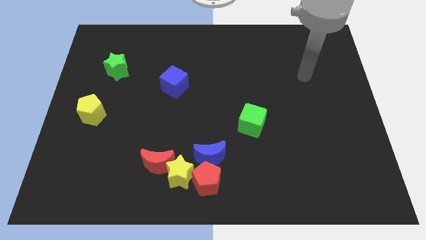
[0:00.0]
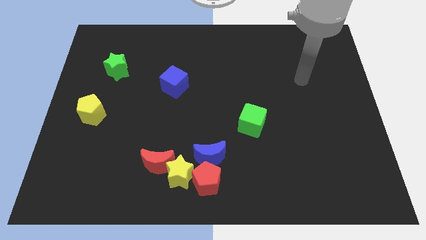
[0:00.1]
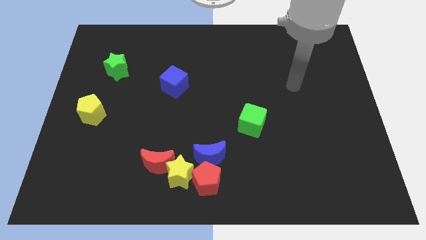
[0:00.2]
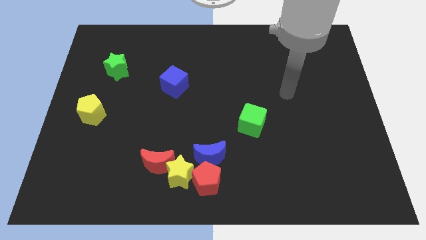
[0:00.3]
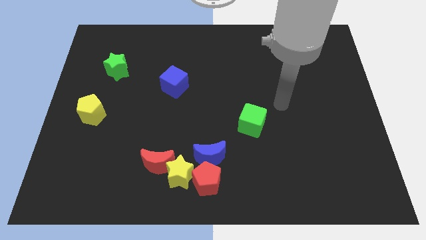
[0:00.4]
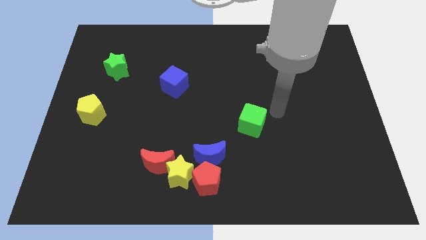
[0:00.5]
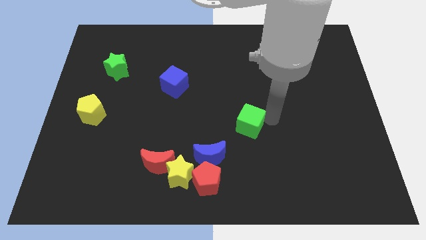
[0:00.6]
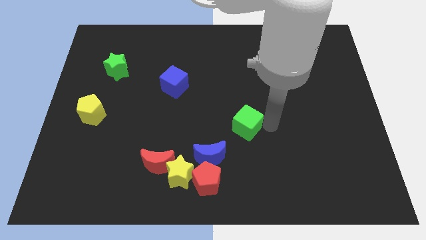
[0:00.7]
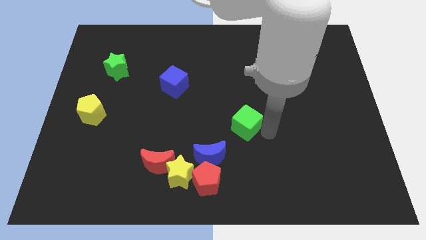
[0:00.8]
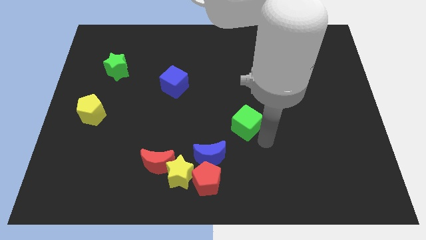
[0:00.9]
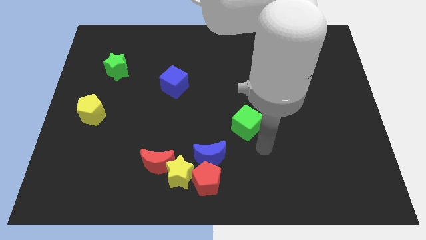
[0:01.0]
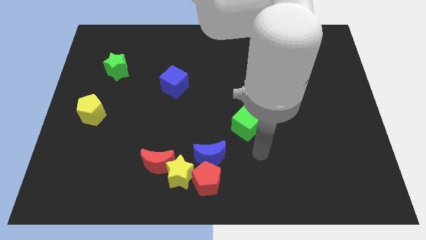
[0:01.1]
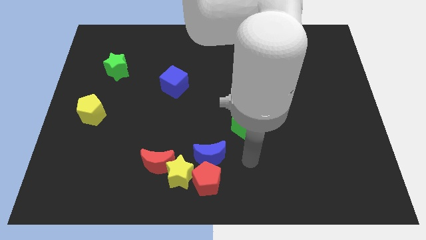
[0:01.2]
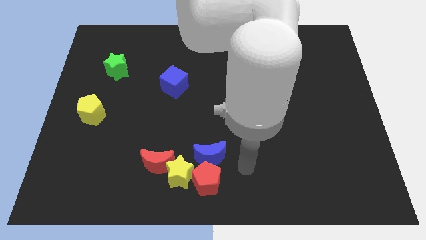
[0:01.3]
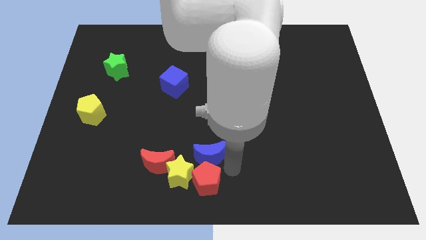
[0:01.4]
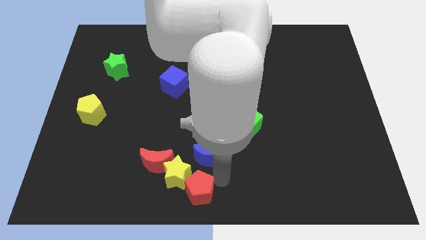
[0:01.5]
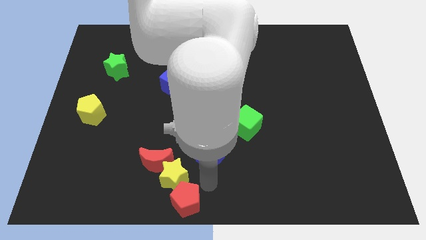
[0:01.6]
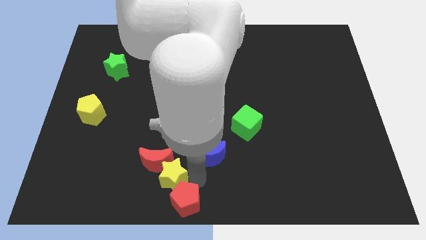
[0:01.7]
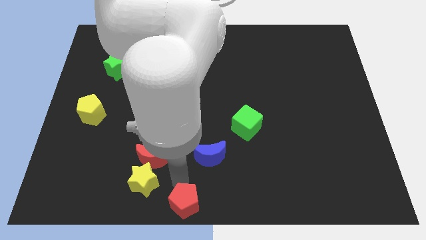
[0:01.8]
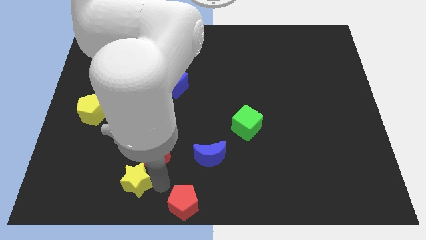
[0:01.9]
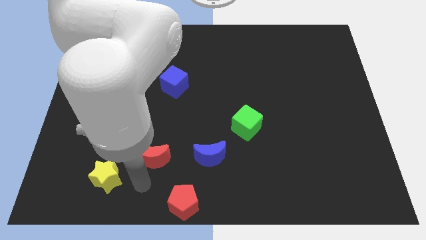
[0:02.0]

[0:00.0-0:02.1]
separate the red moon from the yellow star

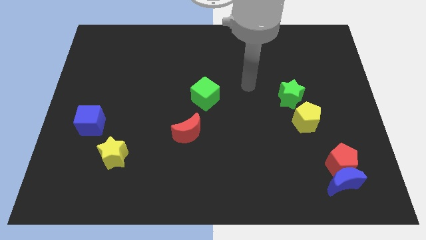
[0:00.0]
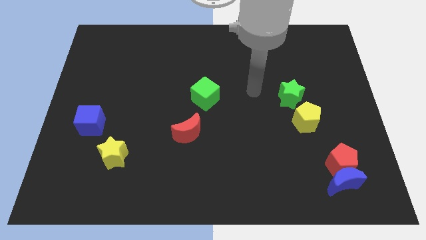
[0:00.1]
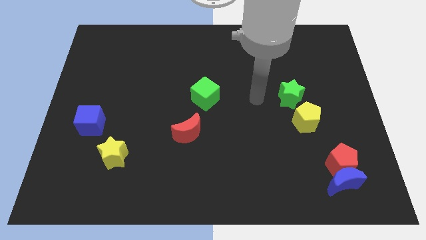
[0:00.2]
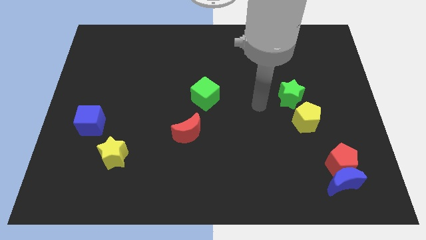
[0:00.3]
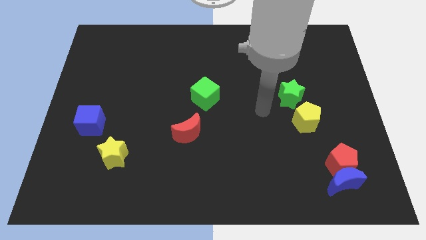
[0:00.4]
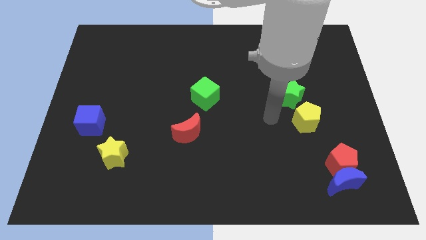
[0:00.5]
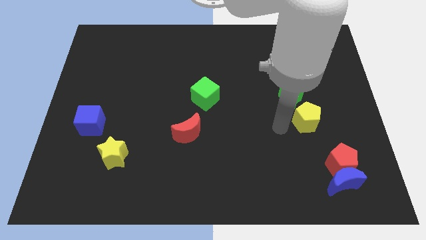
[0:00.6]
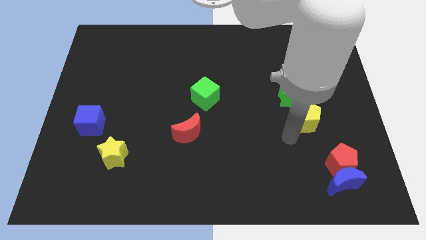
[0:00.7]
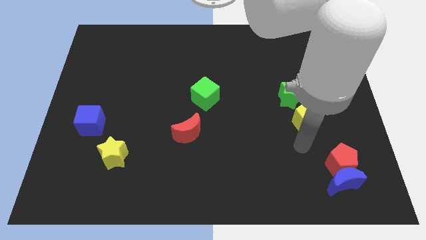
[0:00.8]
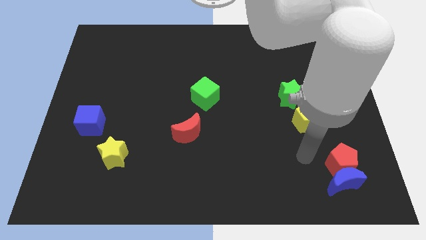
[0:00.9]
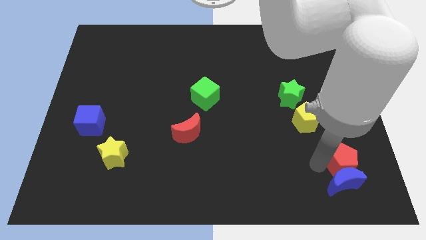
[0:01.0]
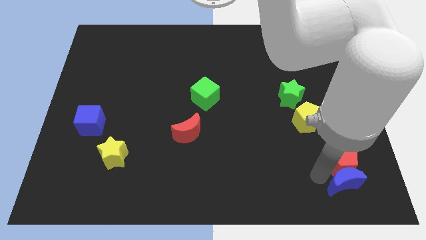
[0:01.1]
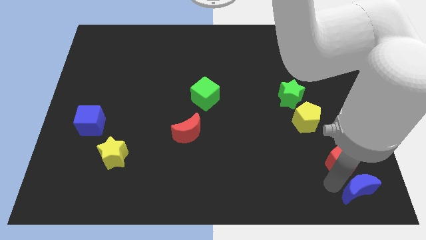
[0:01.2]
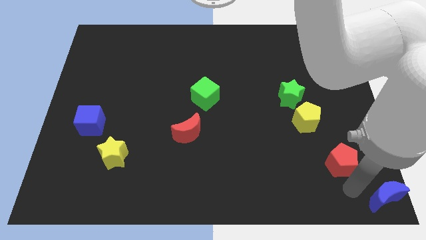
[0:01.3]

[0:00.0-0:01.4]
move the red pentagon away from the blue moon

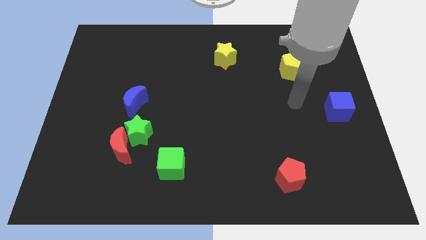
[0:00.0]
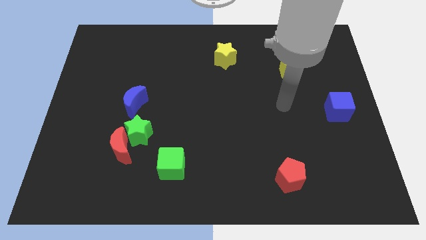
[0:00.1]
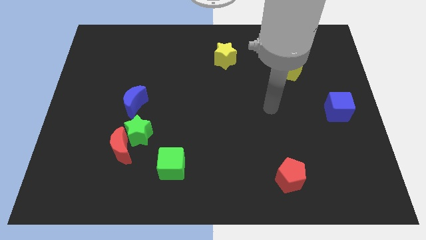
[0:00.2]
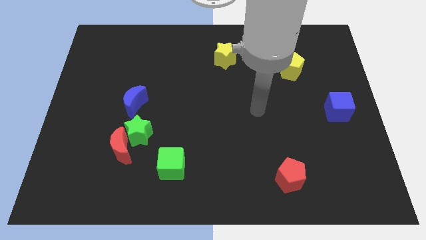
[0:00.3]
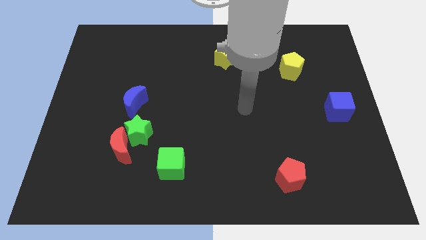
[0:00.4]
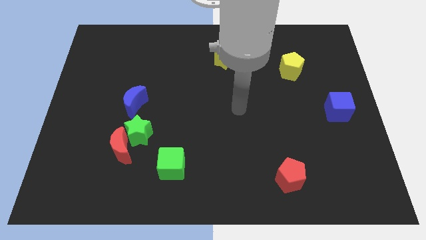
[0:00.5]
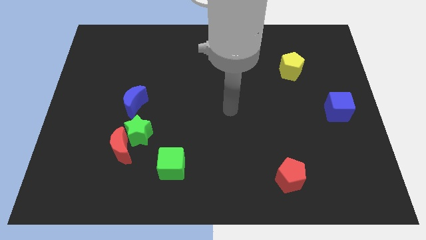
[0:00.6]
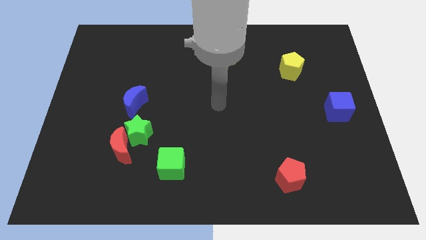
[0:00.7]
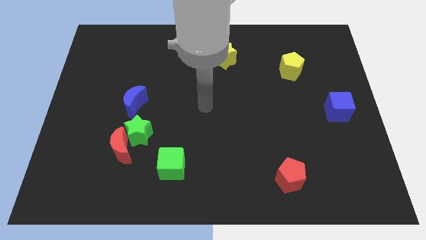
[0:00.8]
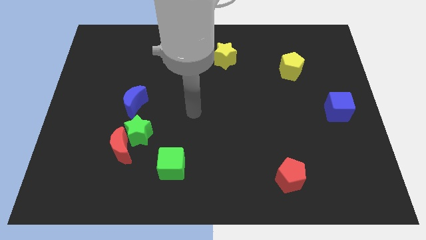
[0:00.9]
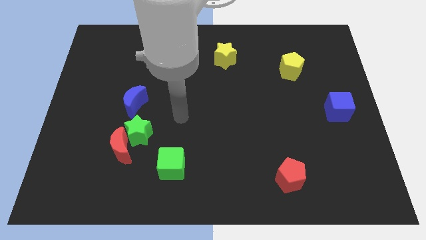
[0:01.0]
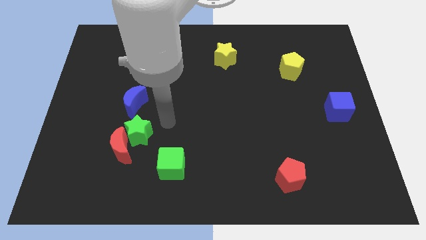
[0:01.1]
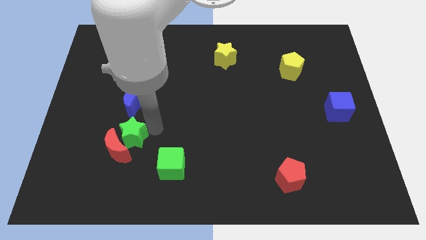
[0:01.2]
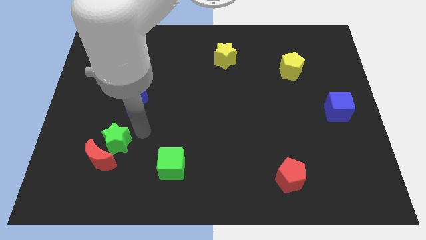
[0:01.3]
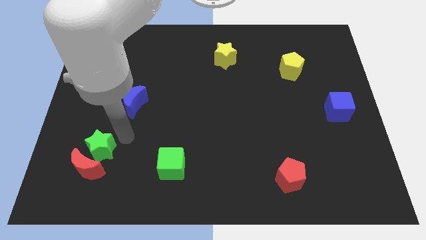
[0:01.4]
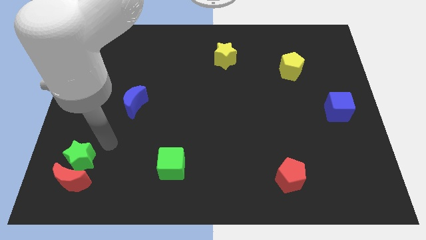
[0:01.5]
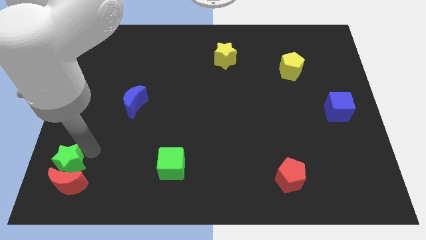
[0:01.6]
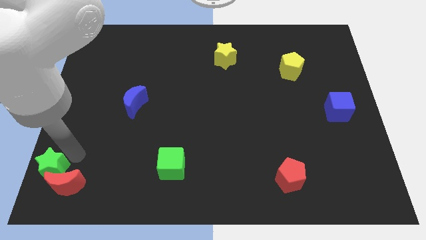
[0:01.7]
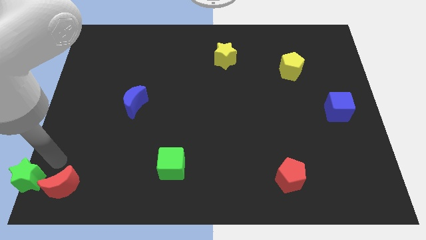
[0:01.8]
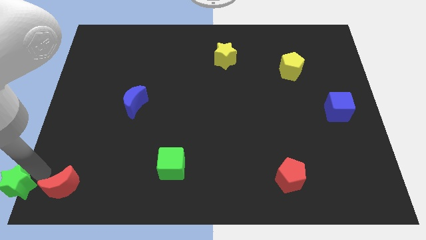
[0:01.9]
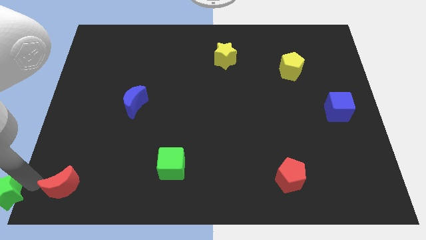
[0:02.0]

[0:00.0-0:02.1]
separate the red moon from the green star

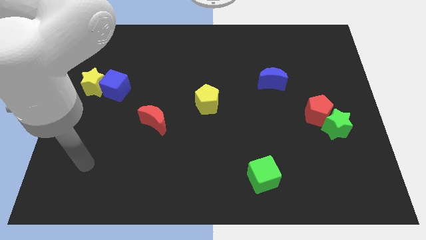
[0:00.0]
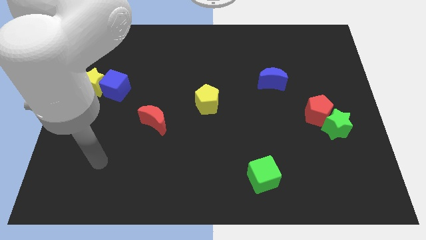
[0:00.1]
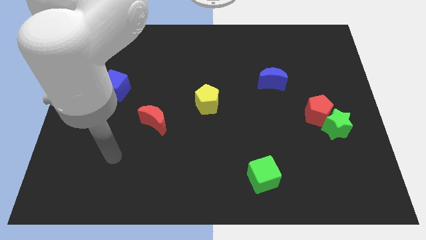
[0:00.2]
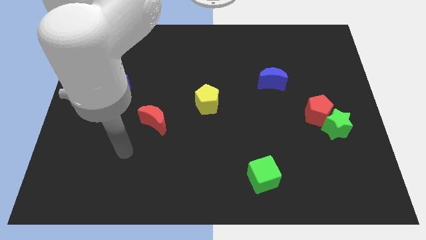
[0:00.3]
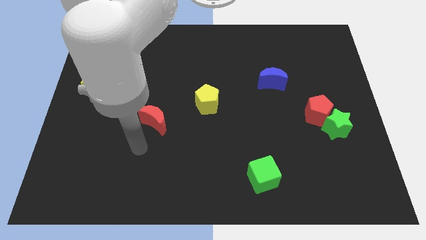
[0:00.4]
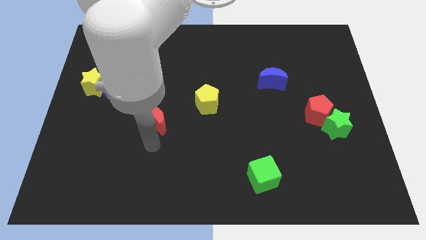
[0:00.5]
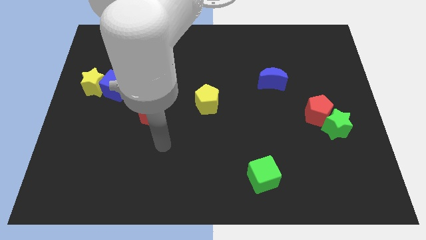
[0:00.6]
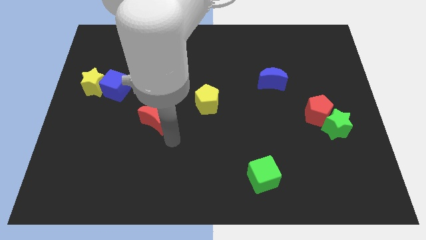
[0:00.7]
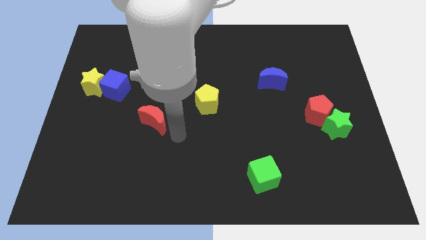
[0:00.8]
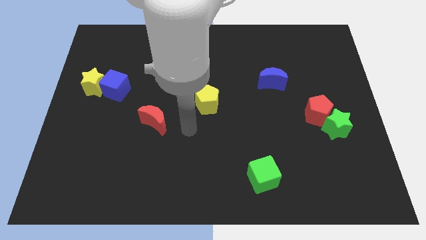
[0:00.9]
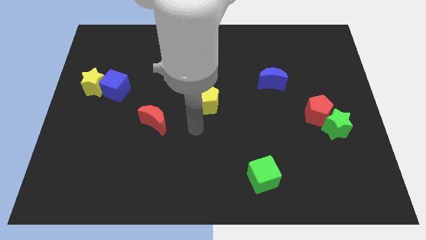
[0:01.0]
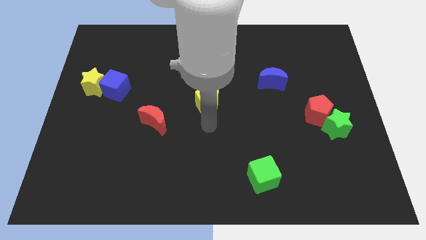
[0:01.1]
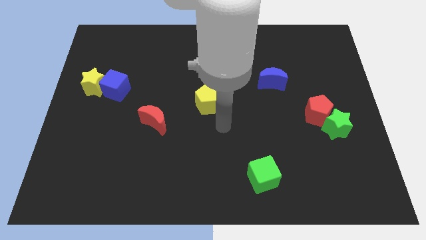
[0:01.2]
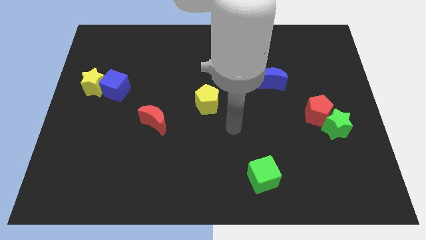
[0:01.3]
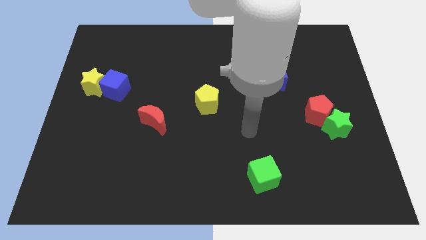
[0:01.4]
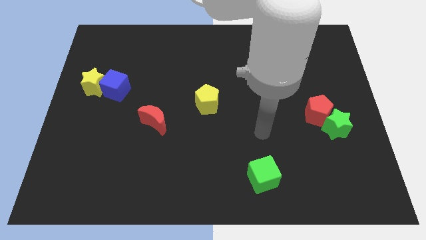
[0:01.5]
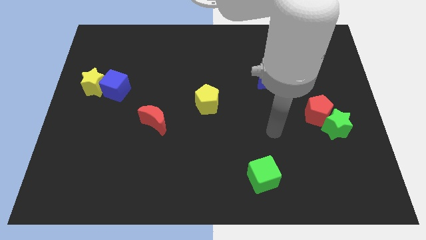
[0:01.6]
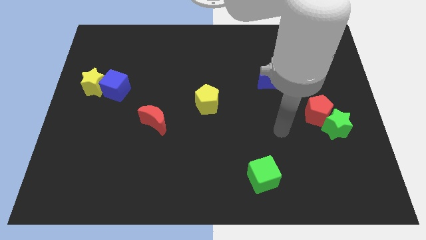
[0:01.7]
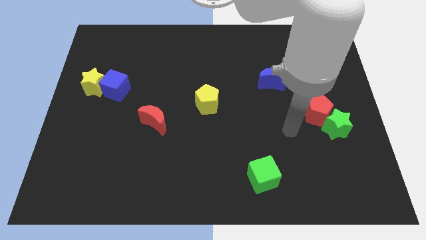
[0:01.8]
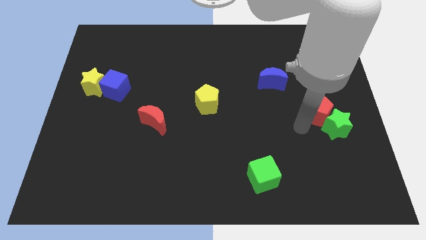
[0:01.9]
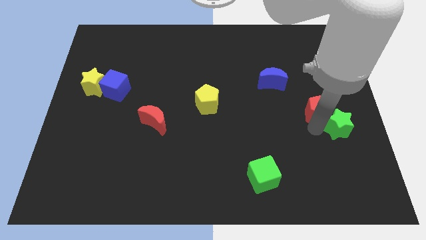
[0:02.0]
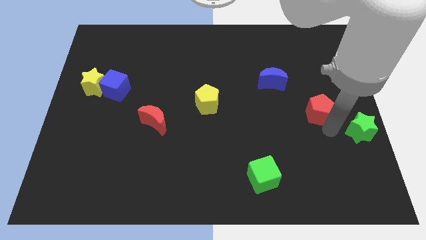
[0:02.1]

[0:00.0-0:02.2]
pull the red pentagon apart from the green star

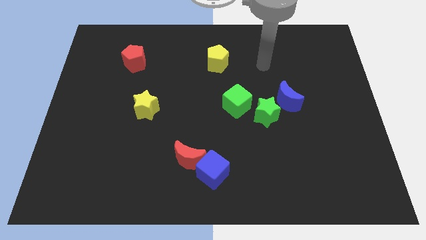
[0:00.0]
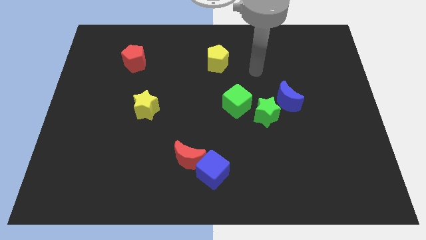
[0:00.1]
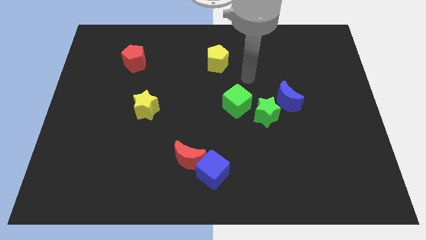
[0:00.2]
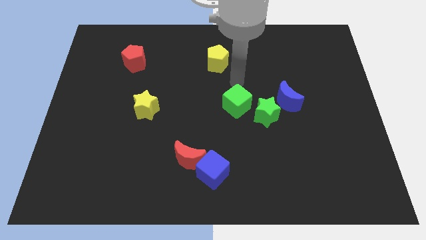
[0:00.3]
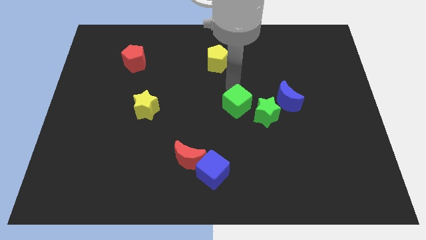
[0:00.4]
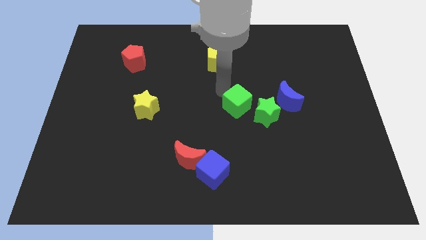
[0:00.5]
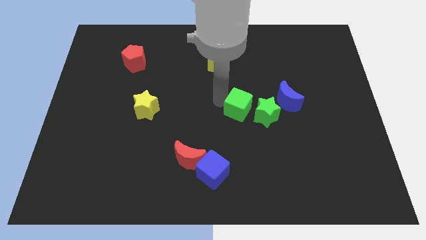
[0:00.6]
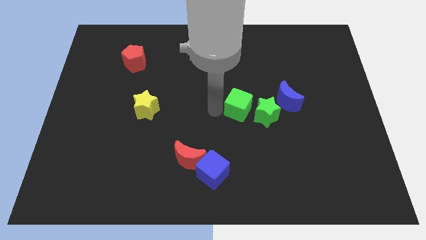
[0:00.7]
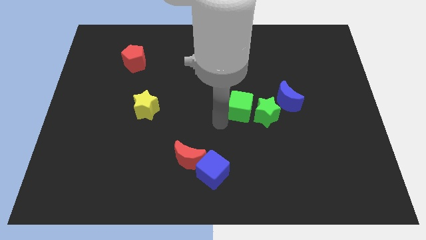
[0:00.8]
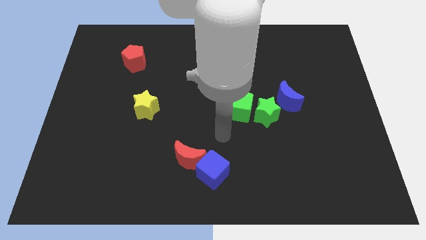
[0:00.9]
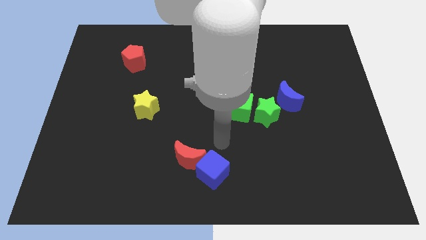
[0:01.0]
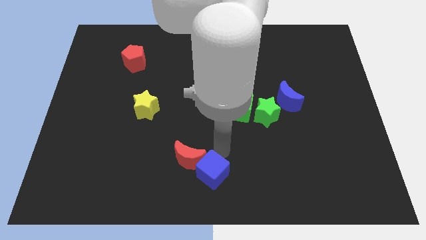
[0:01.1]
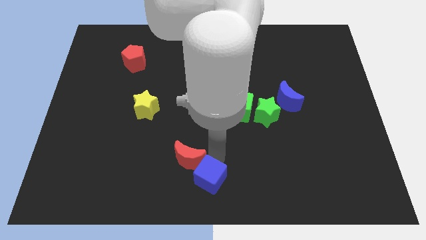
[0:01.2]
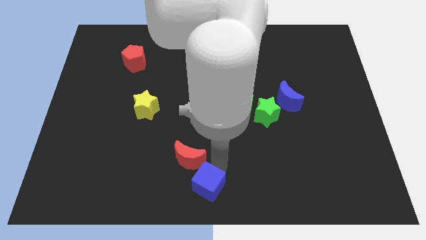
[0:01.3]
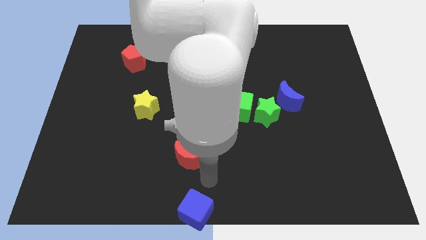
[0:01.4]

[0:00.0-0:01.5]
separate the red moon from the blue cube
